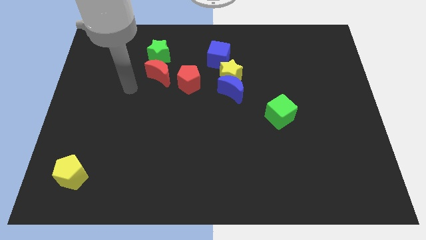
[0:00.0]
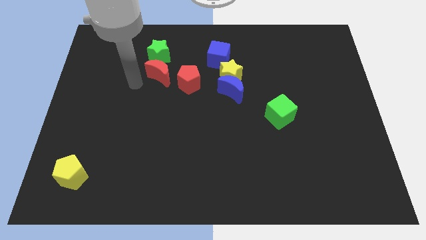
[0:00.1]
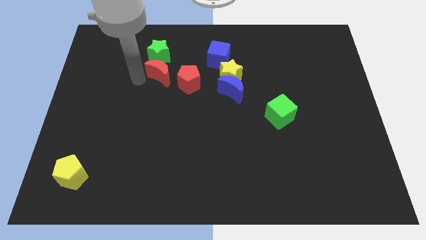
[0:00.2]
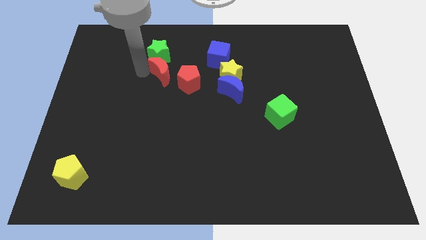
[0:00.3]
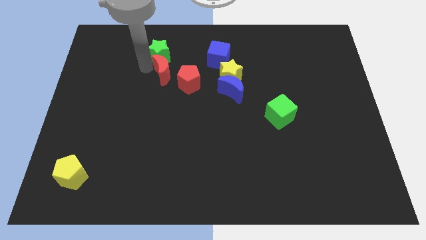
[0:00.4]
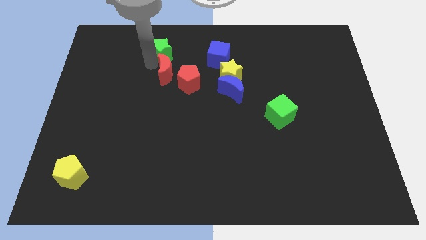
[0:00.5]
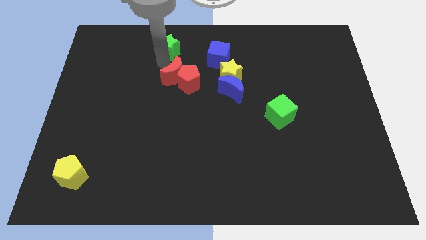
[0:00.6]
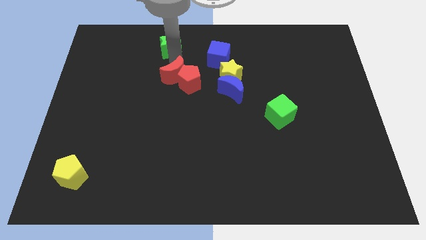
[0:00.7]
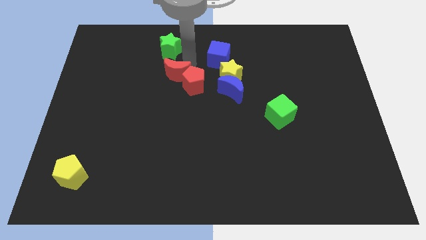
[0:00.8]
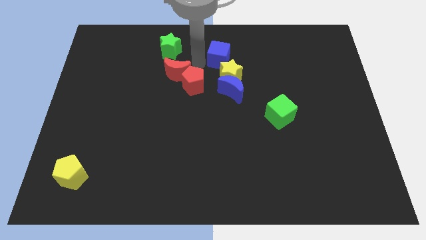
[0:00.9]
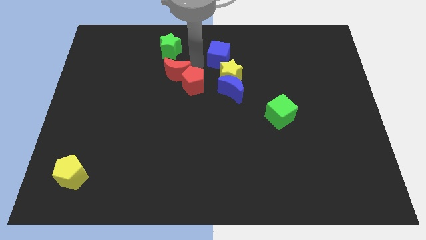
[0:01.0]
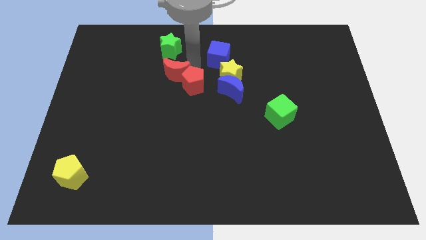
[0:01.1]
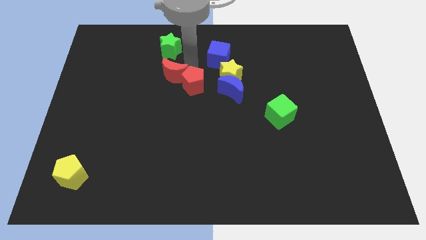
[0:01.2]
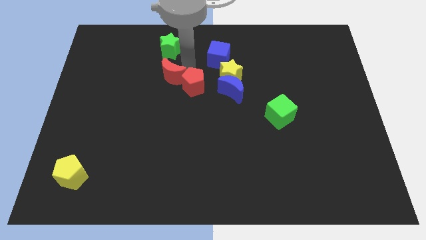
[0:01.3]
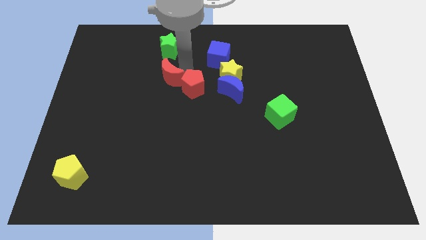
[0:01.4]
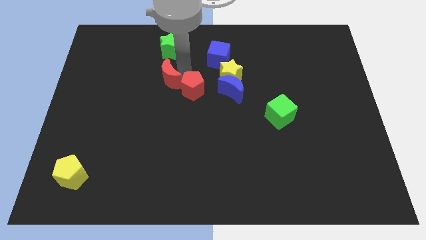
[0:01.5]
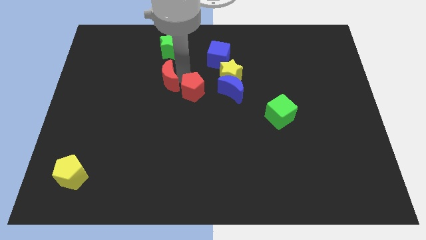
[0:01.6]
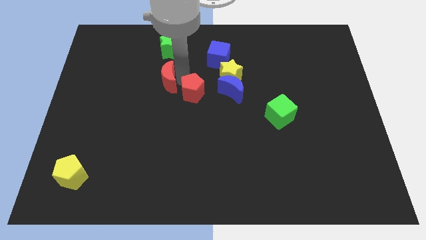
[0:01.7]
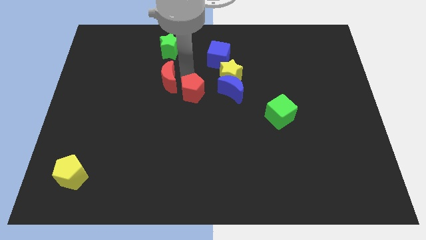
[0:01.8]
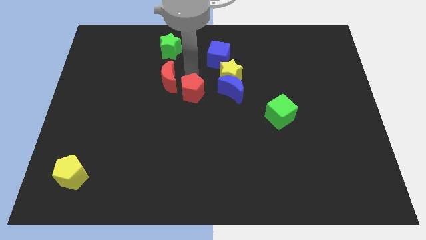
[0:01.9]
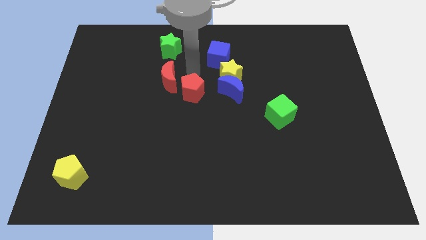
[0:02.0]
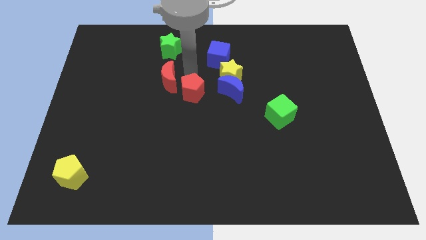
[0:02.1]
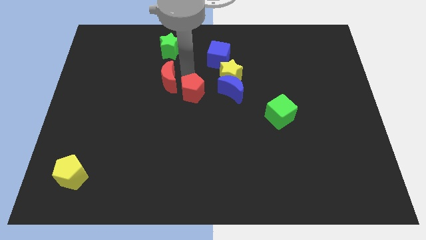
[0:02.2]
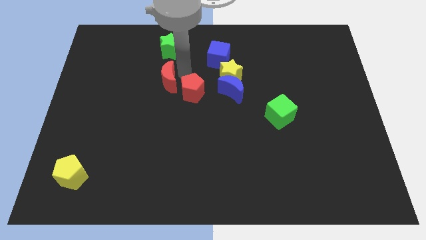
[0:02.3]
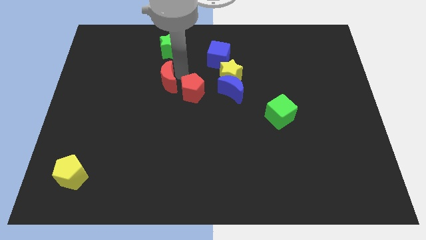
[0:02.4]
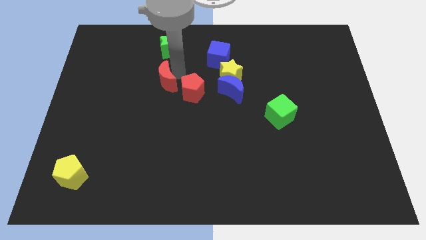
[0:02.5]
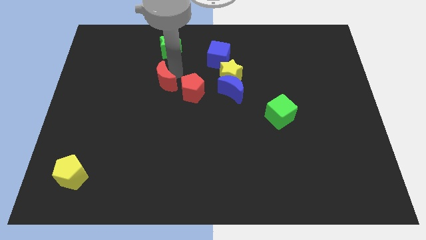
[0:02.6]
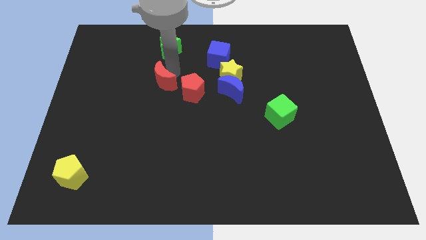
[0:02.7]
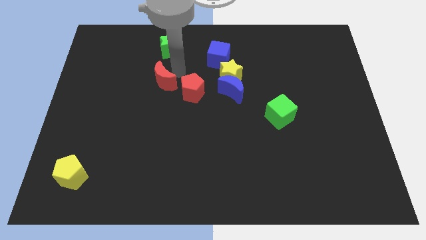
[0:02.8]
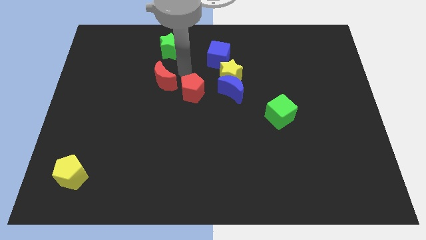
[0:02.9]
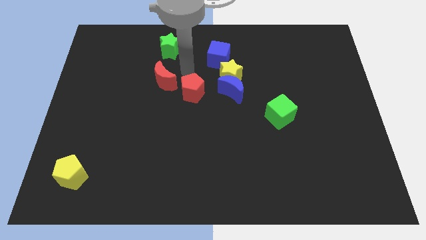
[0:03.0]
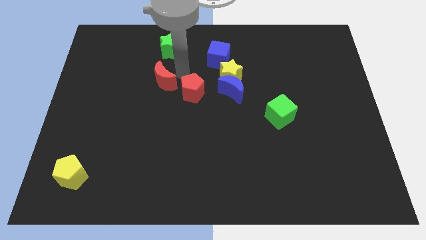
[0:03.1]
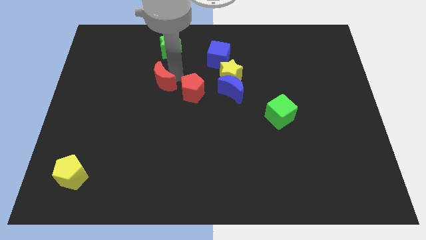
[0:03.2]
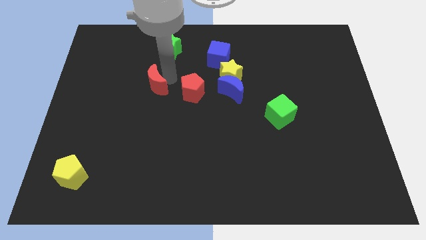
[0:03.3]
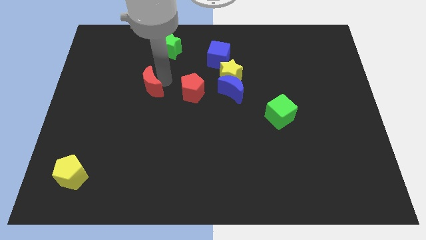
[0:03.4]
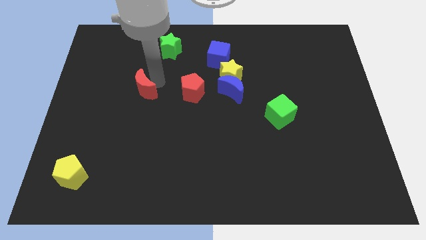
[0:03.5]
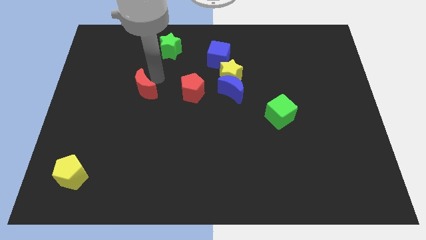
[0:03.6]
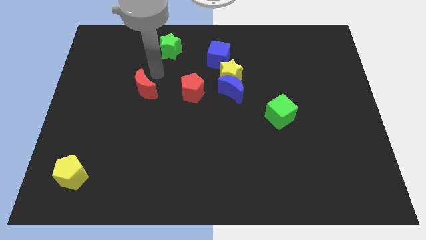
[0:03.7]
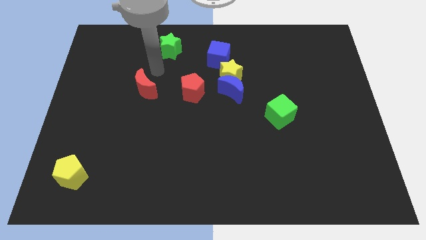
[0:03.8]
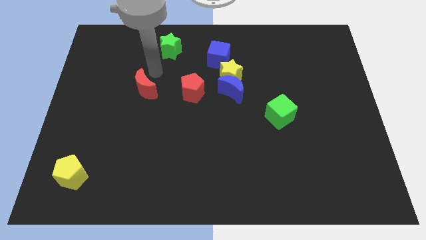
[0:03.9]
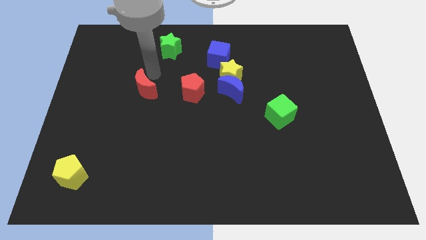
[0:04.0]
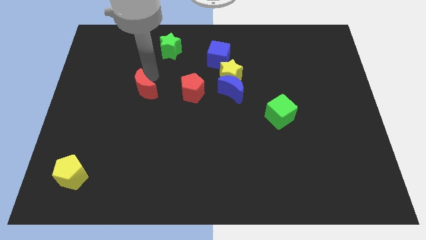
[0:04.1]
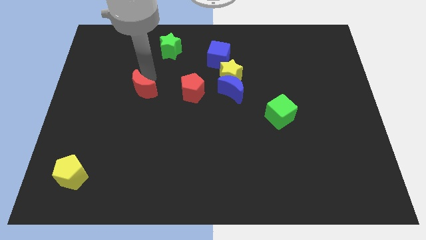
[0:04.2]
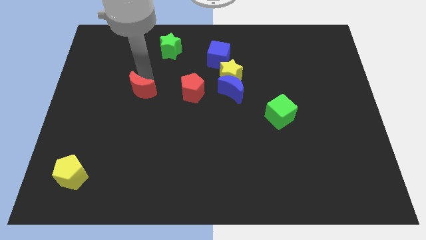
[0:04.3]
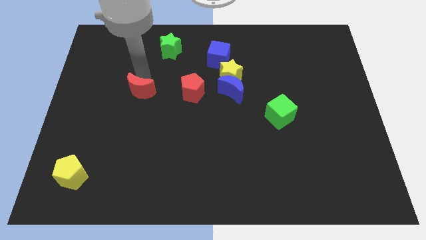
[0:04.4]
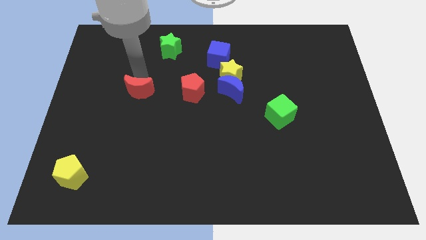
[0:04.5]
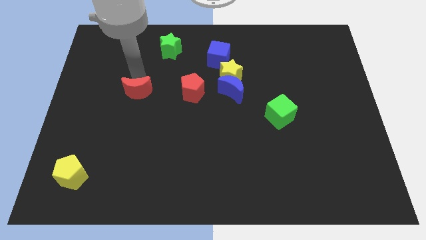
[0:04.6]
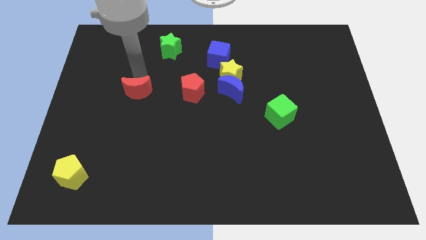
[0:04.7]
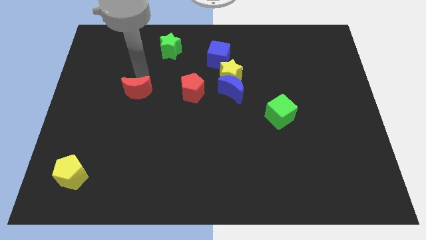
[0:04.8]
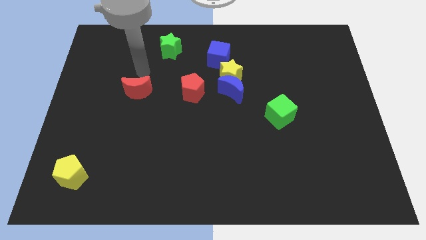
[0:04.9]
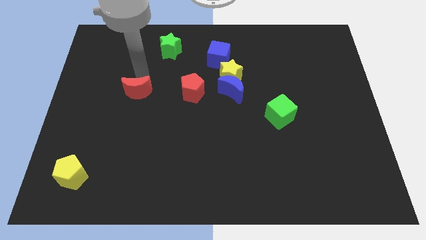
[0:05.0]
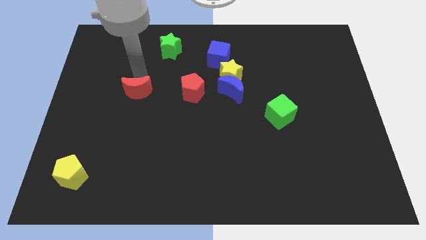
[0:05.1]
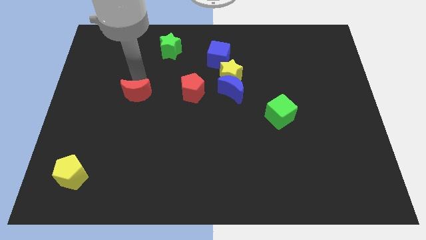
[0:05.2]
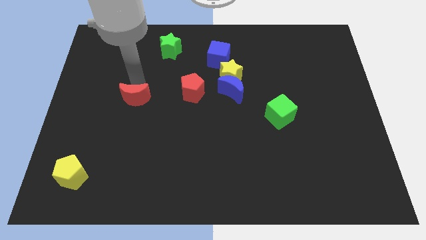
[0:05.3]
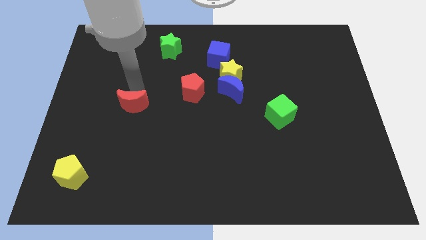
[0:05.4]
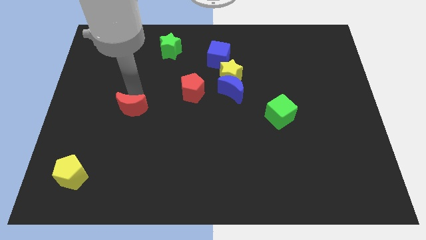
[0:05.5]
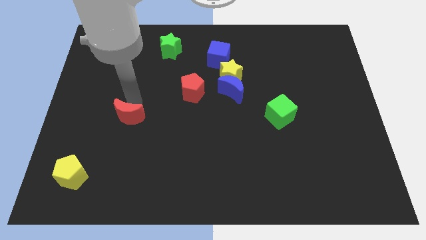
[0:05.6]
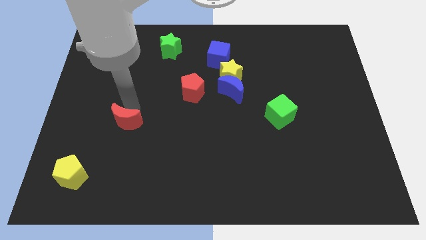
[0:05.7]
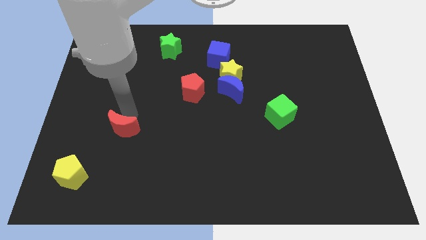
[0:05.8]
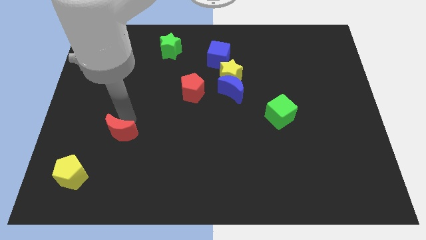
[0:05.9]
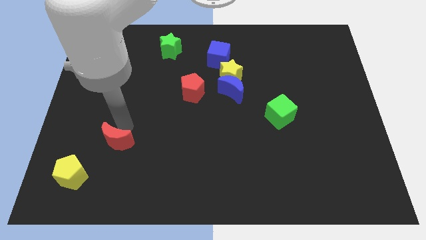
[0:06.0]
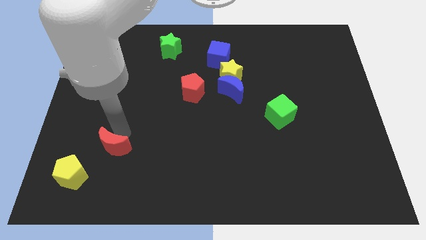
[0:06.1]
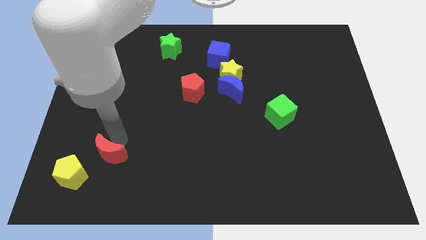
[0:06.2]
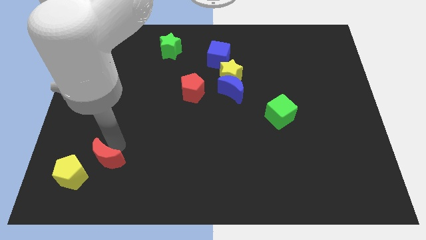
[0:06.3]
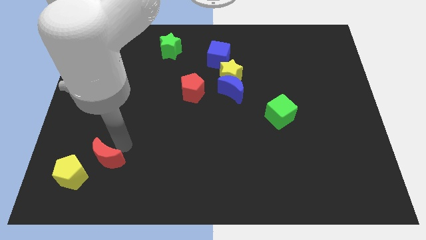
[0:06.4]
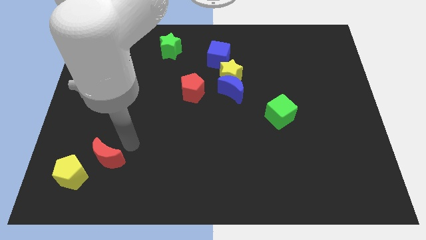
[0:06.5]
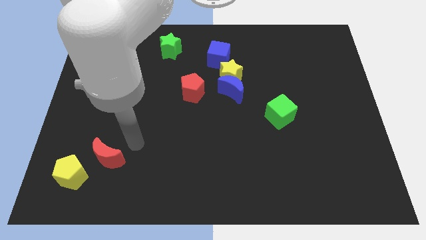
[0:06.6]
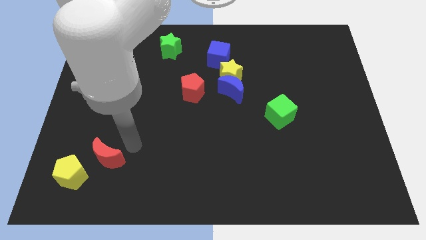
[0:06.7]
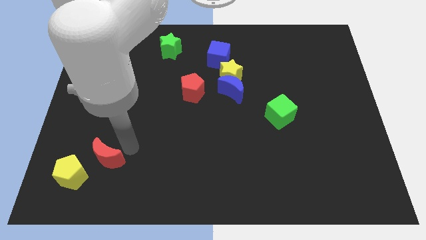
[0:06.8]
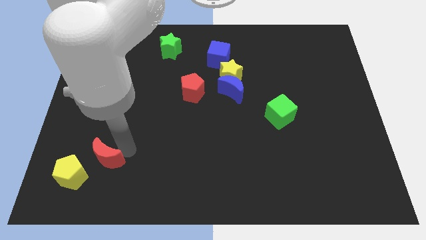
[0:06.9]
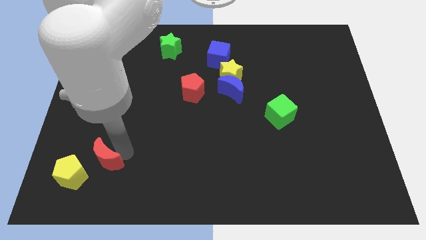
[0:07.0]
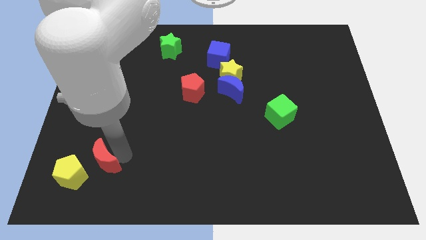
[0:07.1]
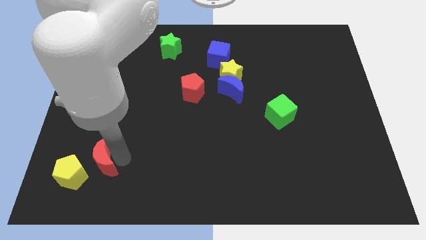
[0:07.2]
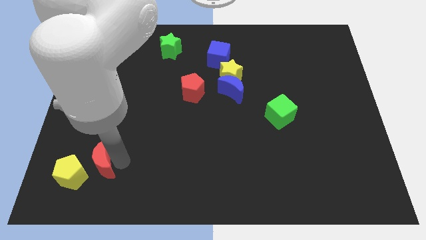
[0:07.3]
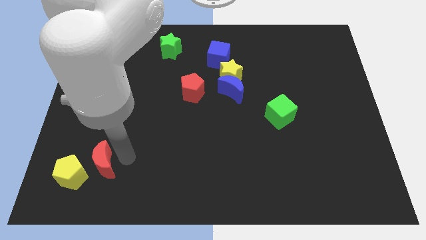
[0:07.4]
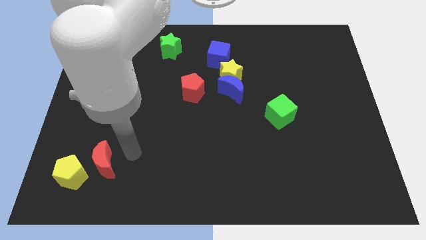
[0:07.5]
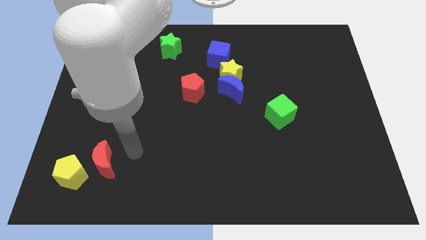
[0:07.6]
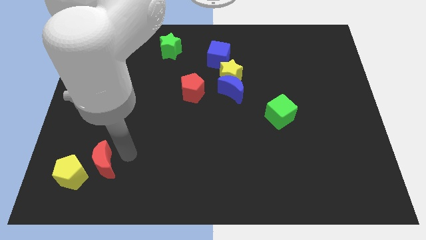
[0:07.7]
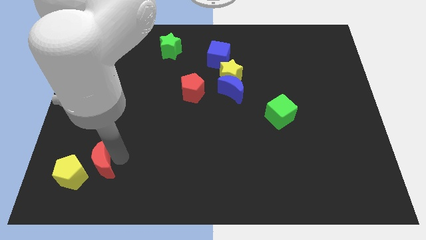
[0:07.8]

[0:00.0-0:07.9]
slide the red moon to the yellow pentagon

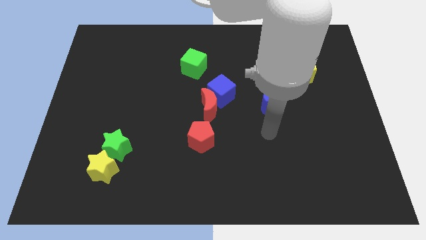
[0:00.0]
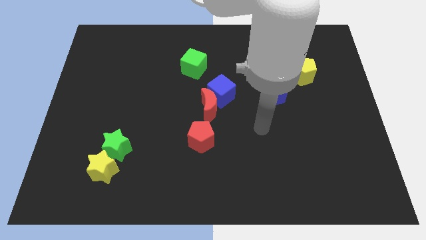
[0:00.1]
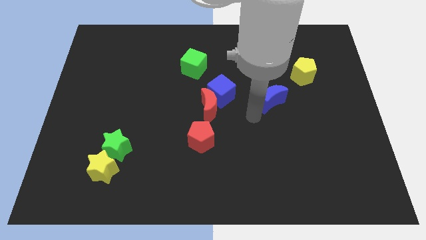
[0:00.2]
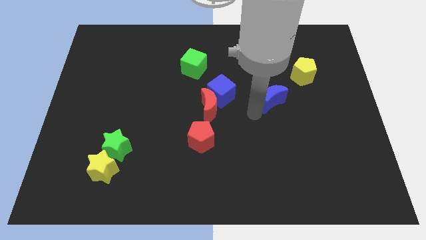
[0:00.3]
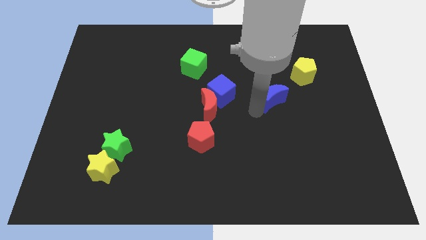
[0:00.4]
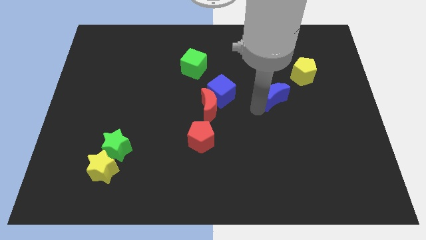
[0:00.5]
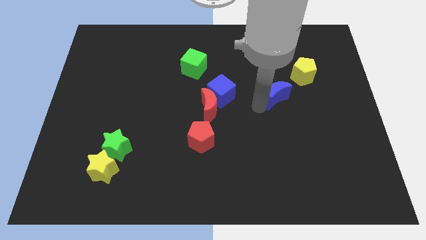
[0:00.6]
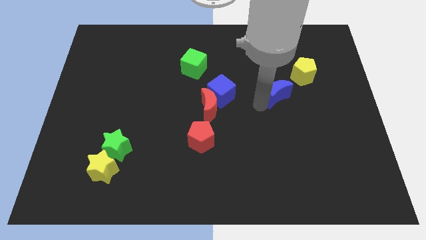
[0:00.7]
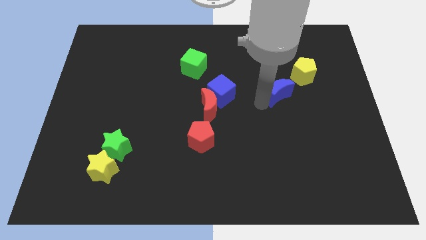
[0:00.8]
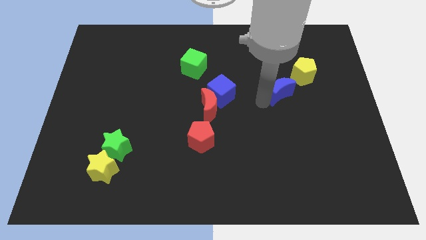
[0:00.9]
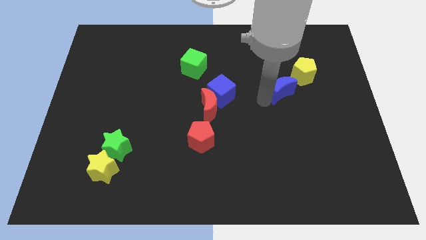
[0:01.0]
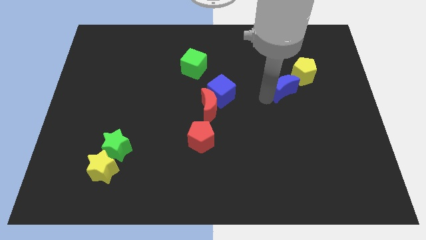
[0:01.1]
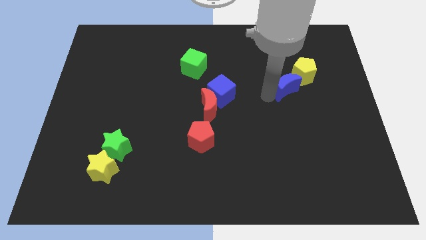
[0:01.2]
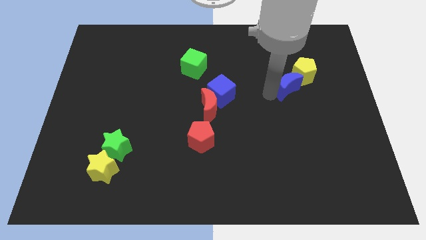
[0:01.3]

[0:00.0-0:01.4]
put the blue moon close to the yellow pentagon
